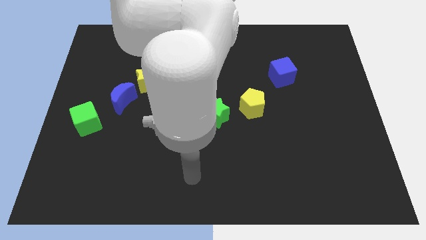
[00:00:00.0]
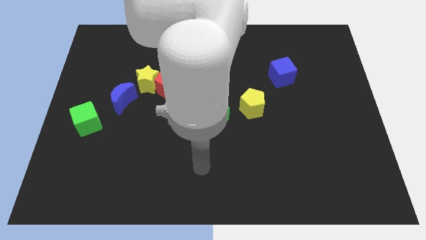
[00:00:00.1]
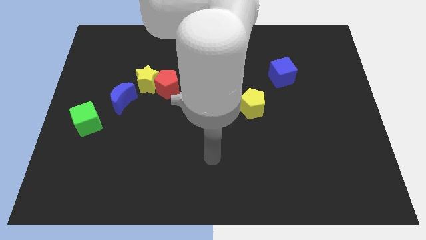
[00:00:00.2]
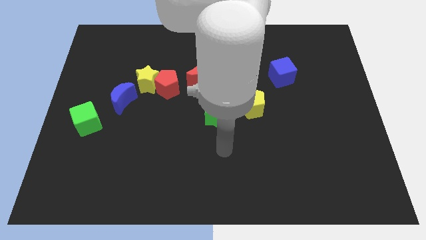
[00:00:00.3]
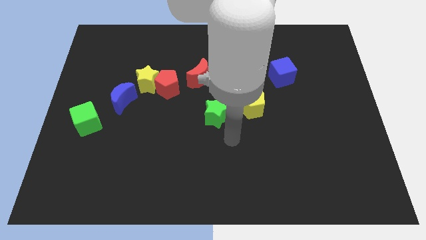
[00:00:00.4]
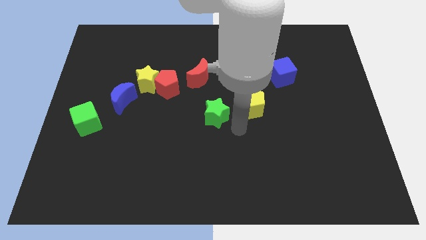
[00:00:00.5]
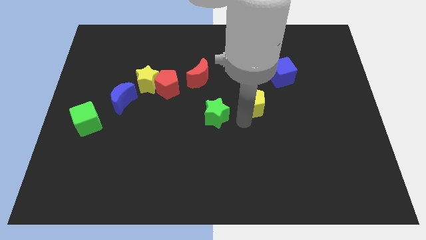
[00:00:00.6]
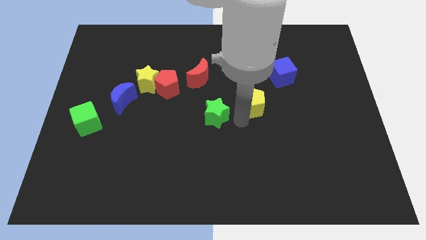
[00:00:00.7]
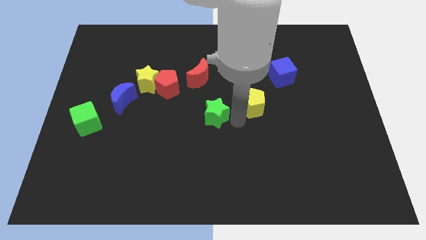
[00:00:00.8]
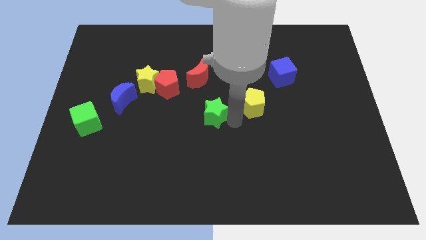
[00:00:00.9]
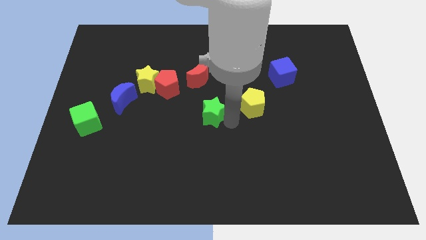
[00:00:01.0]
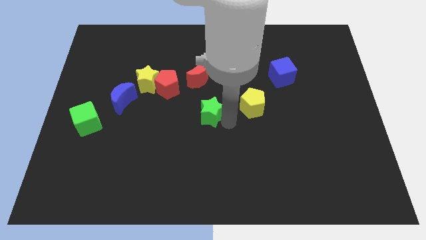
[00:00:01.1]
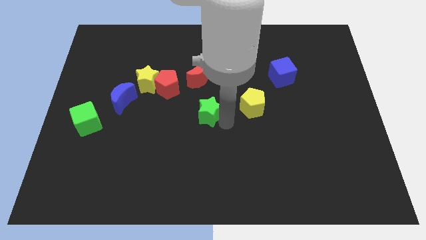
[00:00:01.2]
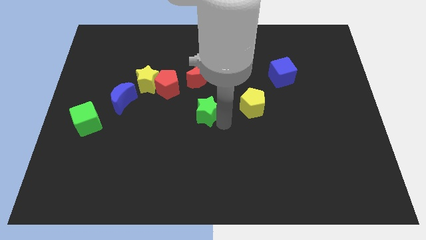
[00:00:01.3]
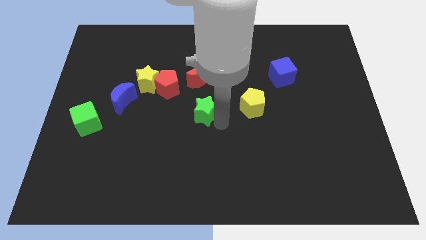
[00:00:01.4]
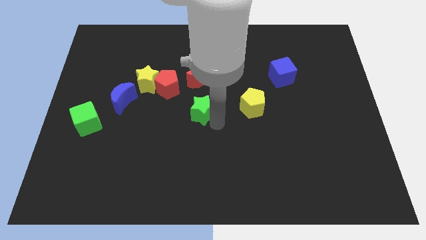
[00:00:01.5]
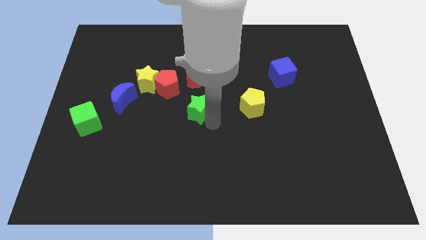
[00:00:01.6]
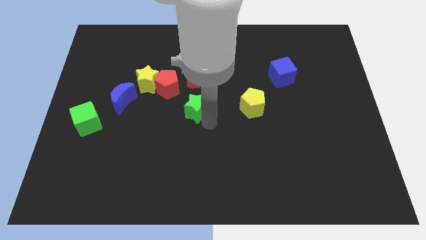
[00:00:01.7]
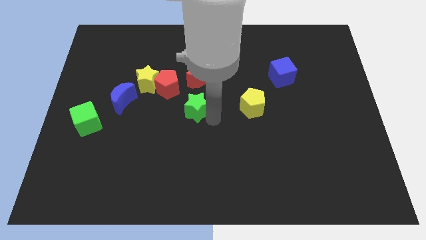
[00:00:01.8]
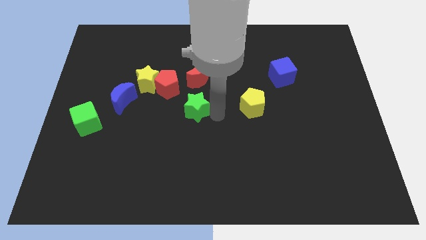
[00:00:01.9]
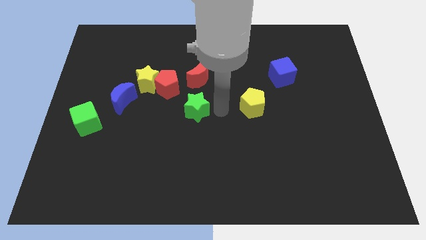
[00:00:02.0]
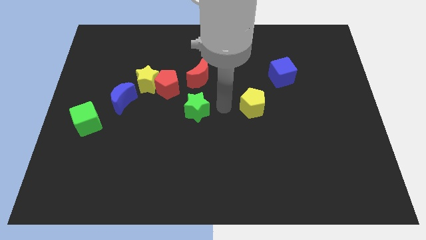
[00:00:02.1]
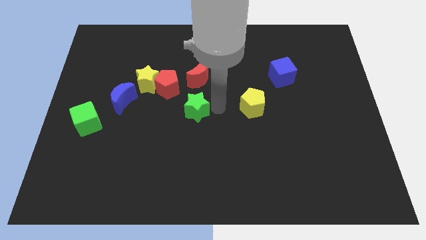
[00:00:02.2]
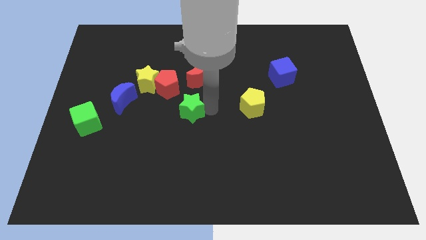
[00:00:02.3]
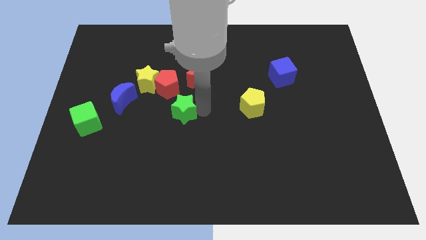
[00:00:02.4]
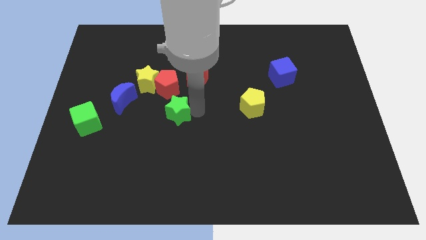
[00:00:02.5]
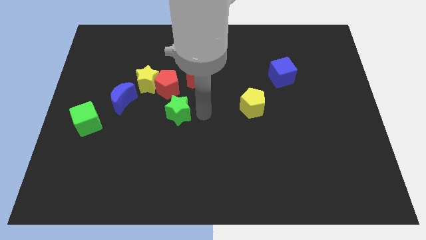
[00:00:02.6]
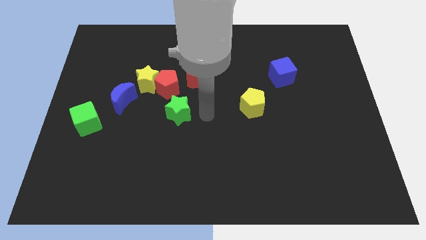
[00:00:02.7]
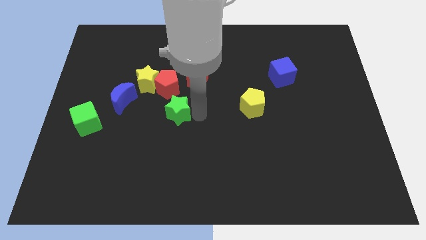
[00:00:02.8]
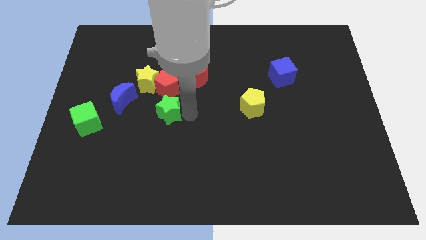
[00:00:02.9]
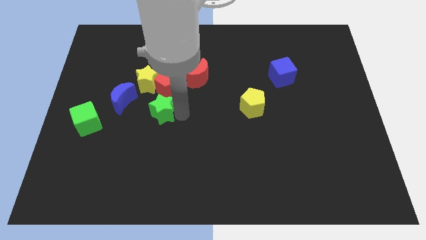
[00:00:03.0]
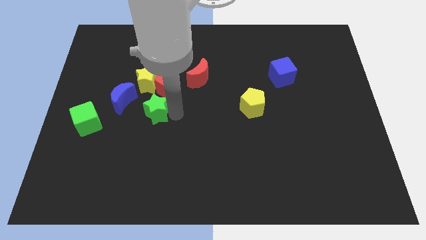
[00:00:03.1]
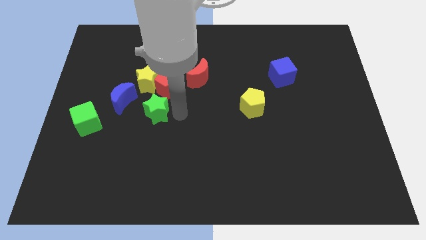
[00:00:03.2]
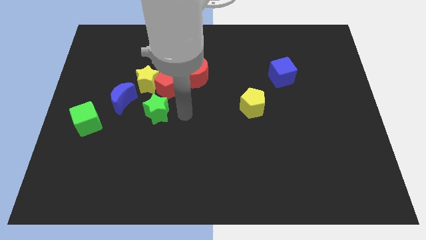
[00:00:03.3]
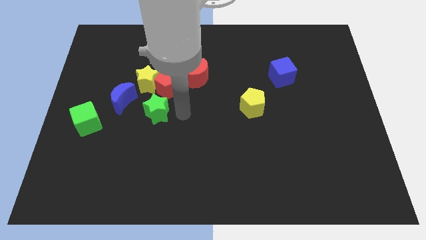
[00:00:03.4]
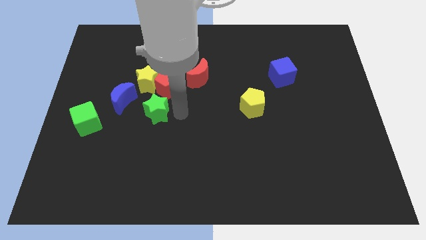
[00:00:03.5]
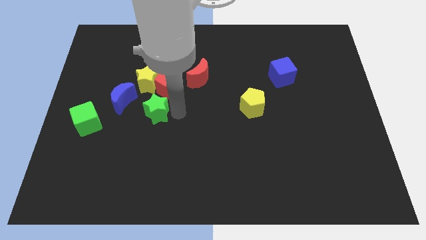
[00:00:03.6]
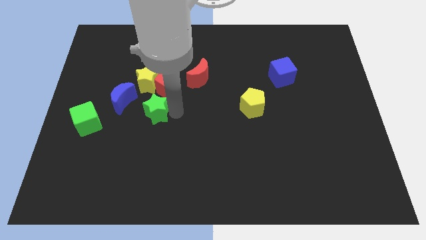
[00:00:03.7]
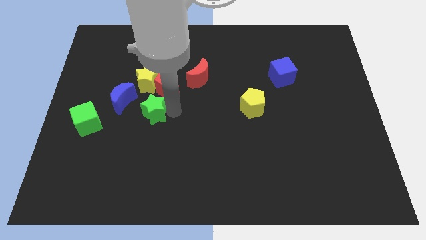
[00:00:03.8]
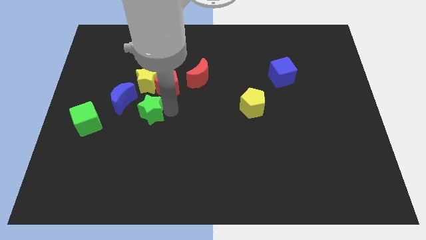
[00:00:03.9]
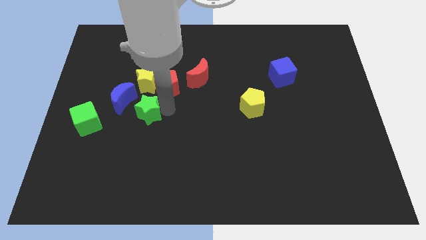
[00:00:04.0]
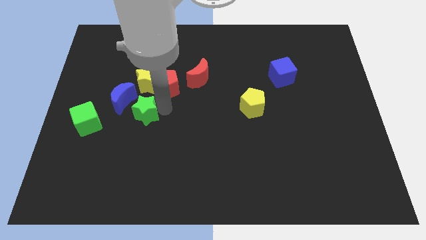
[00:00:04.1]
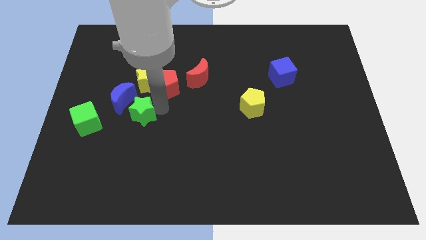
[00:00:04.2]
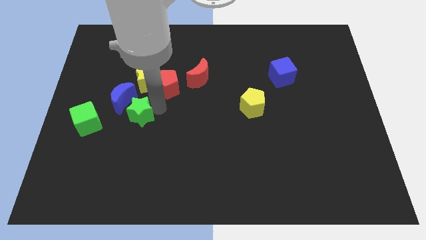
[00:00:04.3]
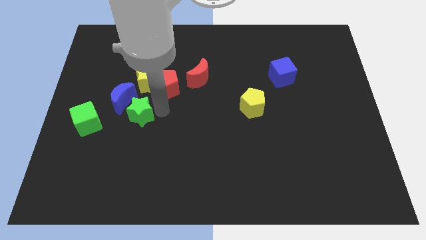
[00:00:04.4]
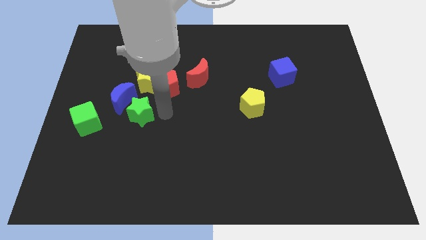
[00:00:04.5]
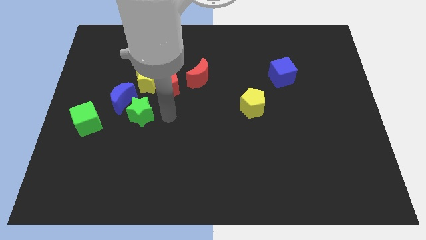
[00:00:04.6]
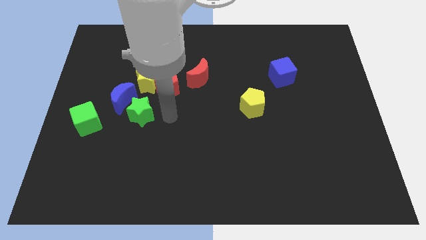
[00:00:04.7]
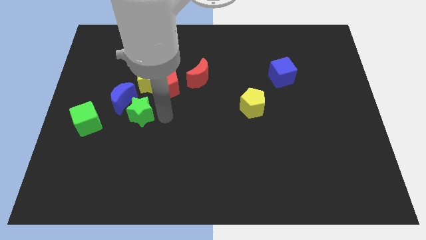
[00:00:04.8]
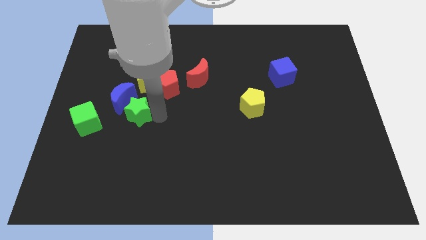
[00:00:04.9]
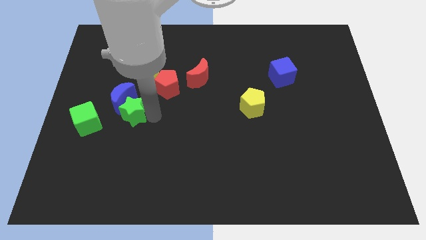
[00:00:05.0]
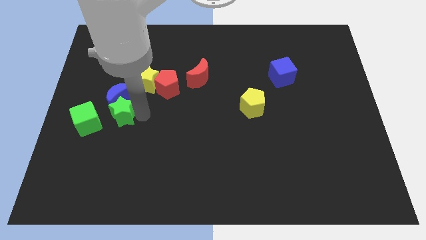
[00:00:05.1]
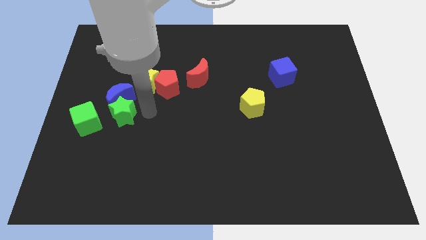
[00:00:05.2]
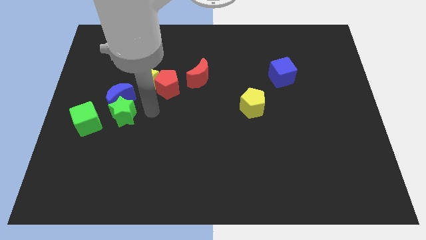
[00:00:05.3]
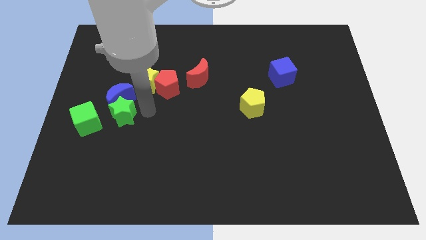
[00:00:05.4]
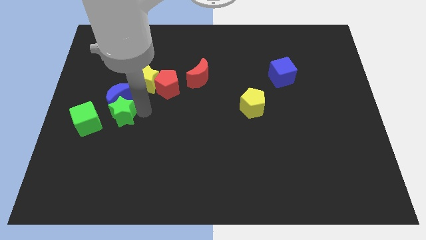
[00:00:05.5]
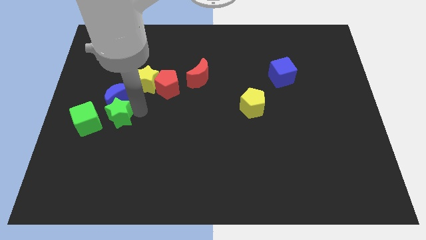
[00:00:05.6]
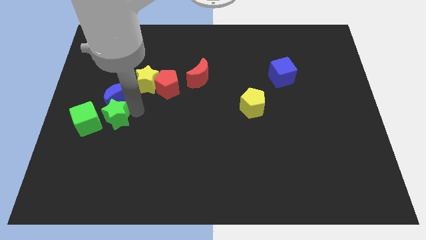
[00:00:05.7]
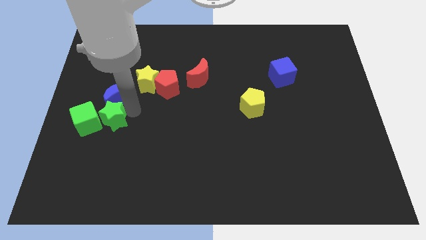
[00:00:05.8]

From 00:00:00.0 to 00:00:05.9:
push the green star to the green cube

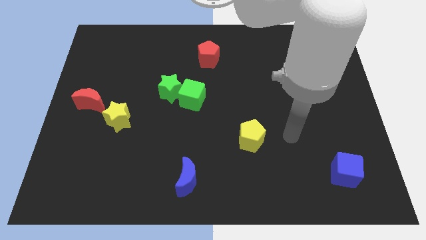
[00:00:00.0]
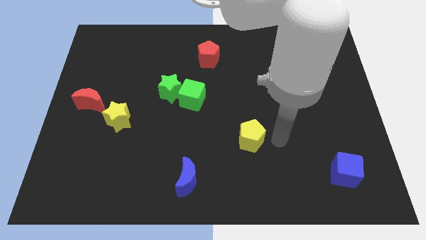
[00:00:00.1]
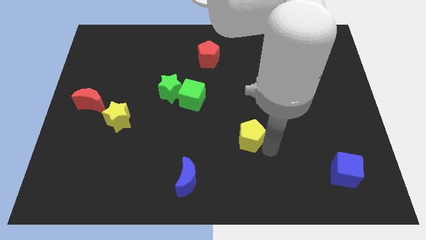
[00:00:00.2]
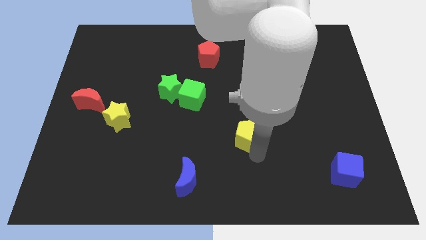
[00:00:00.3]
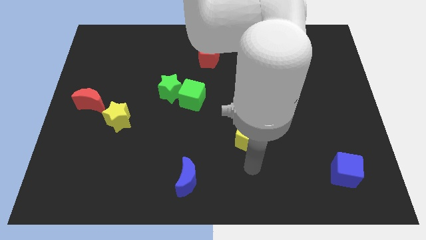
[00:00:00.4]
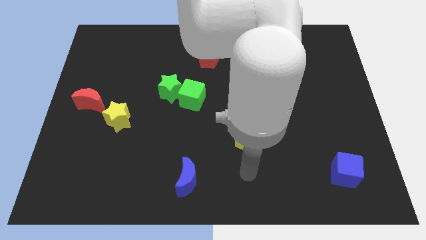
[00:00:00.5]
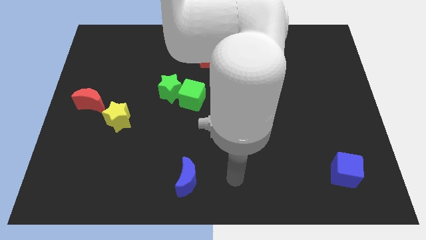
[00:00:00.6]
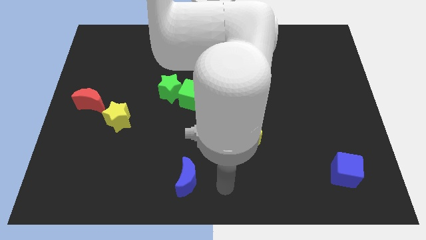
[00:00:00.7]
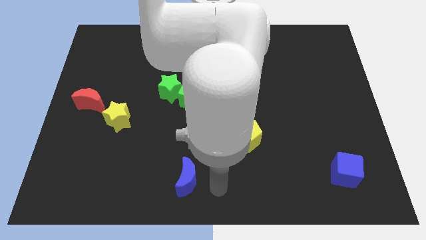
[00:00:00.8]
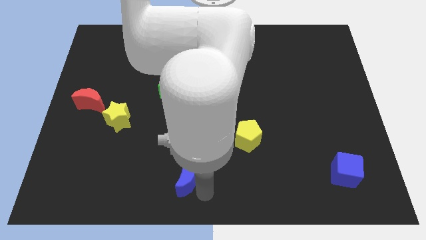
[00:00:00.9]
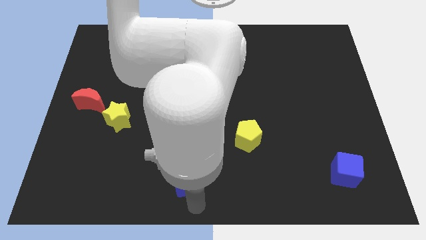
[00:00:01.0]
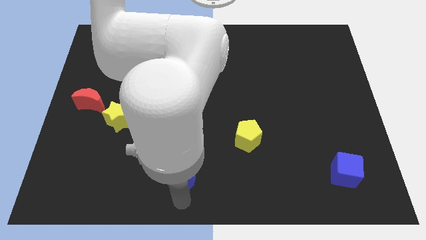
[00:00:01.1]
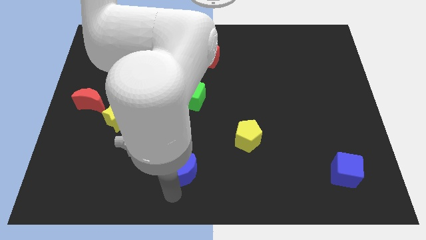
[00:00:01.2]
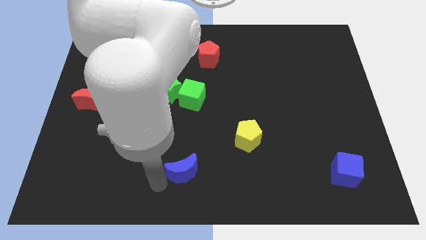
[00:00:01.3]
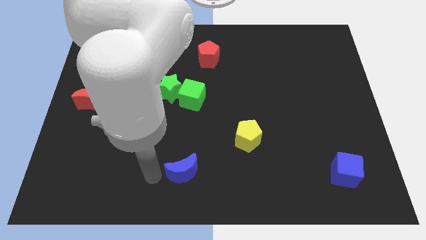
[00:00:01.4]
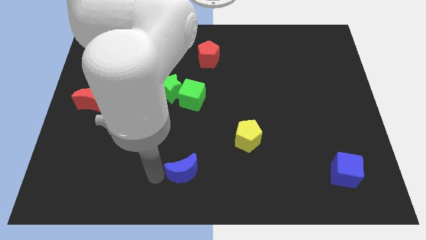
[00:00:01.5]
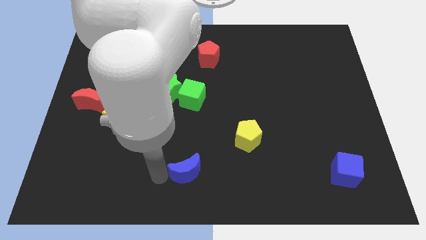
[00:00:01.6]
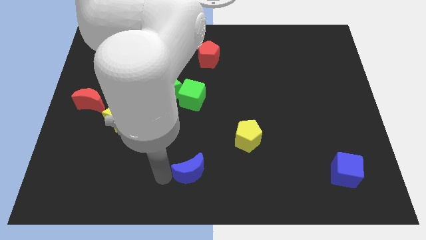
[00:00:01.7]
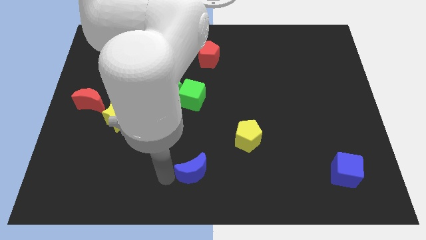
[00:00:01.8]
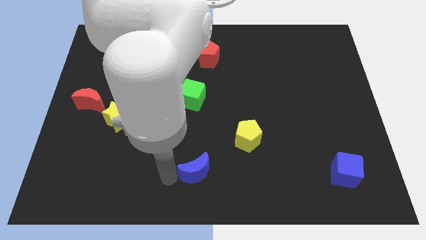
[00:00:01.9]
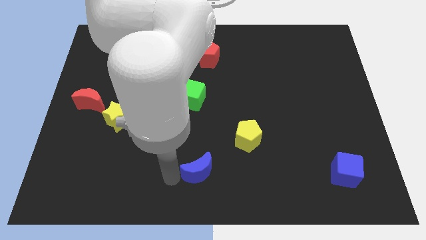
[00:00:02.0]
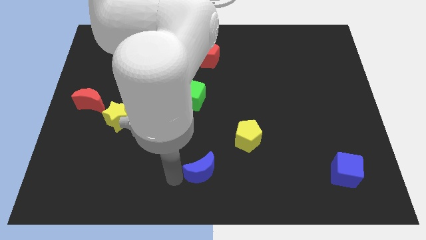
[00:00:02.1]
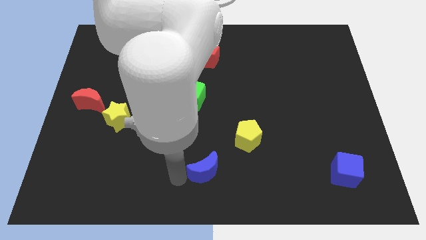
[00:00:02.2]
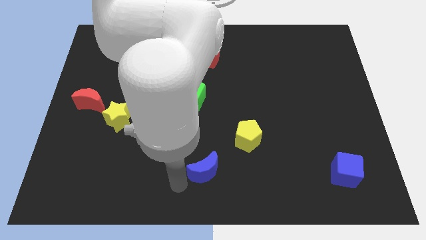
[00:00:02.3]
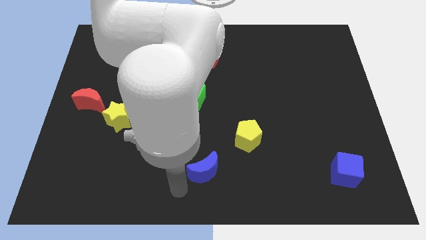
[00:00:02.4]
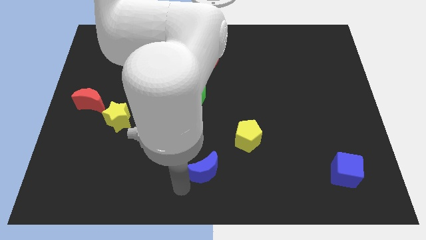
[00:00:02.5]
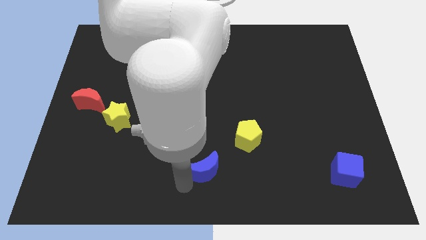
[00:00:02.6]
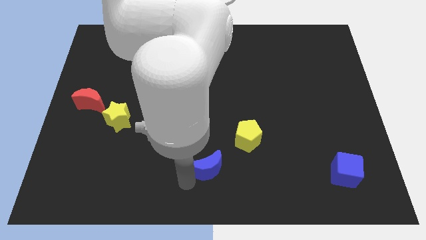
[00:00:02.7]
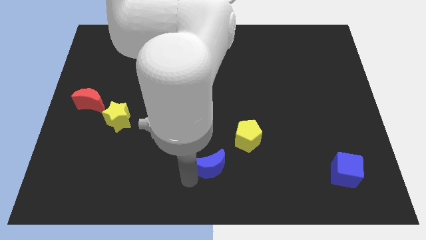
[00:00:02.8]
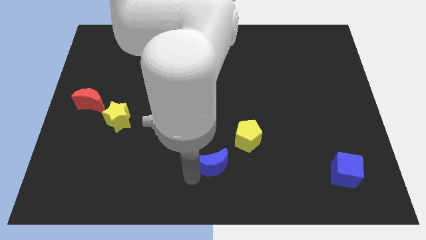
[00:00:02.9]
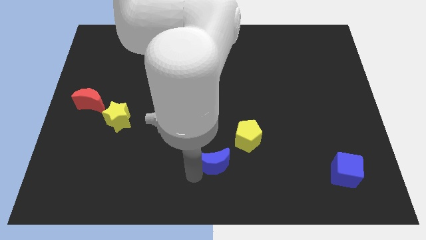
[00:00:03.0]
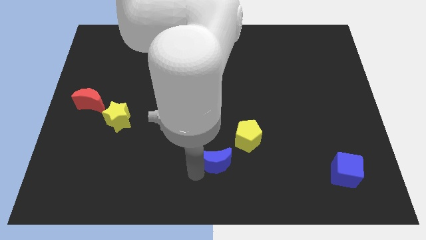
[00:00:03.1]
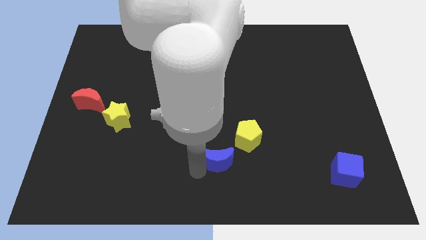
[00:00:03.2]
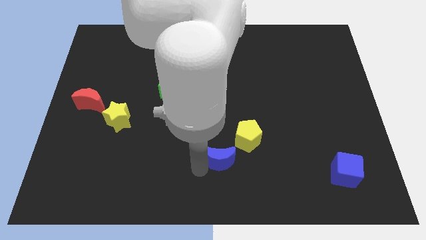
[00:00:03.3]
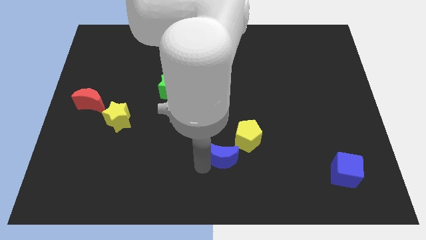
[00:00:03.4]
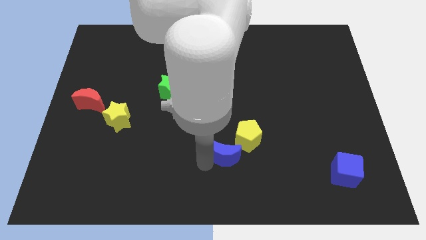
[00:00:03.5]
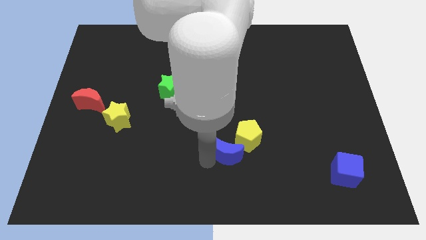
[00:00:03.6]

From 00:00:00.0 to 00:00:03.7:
slide the blue moon close to the yellow pentagon
